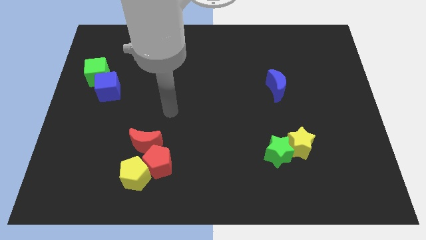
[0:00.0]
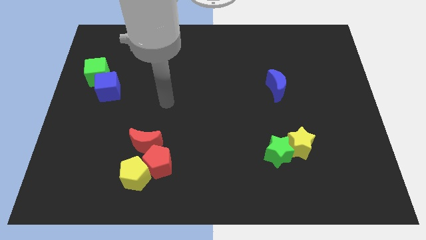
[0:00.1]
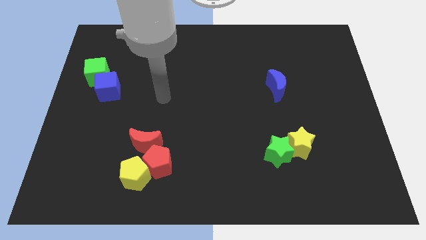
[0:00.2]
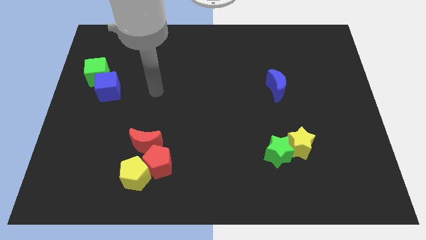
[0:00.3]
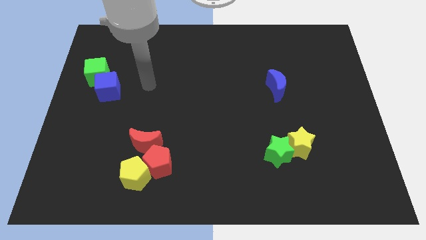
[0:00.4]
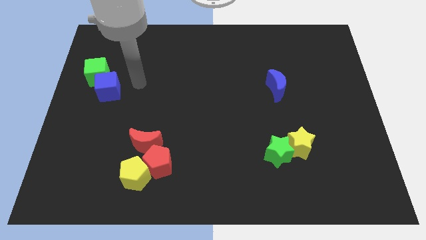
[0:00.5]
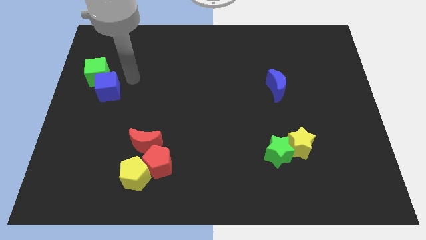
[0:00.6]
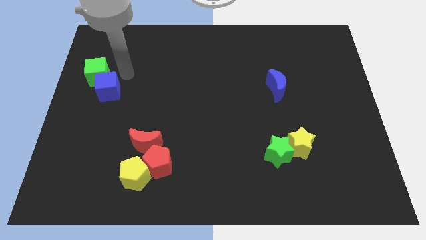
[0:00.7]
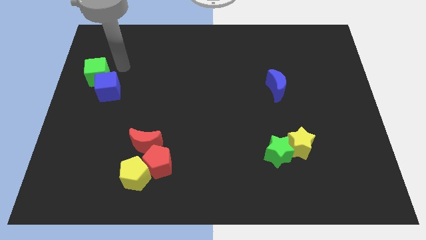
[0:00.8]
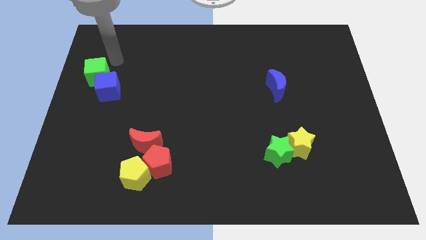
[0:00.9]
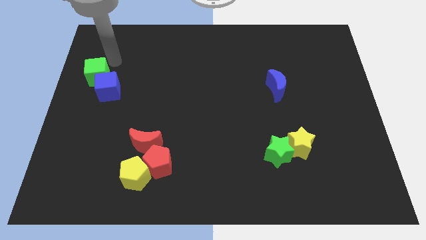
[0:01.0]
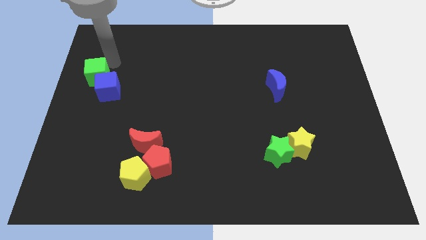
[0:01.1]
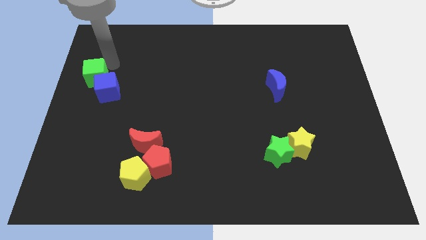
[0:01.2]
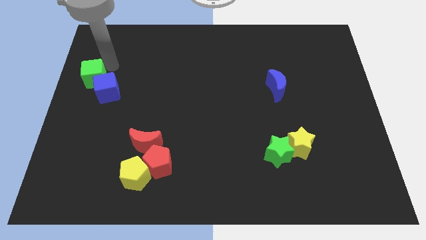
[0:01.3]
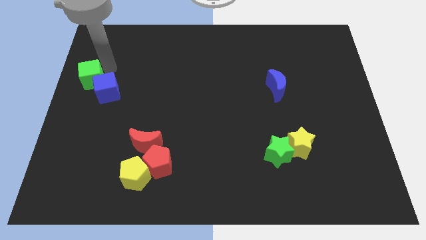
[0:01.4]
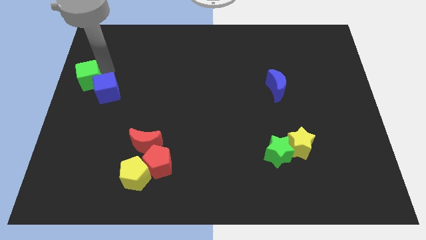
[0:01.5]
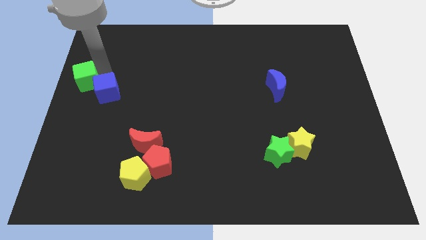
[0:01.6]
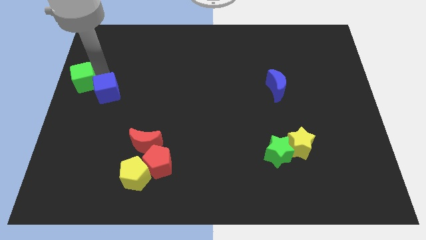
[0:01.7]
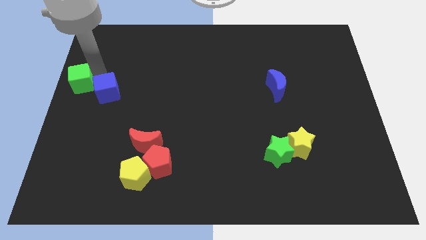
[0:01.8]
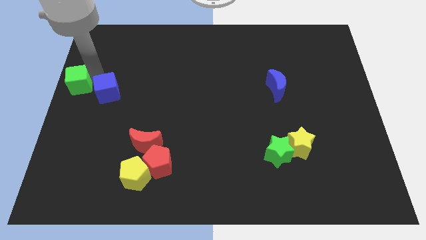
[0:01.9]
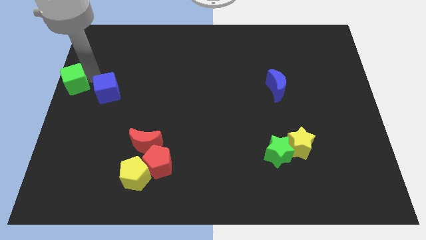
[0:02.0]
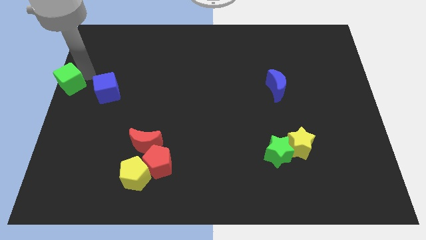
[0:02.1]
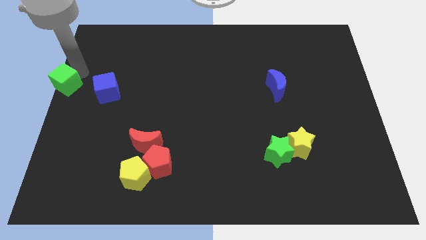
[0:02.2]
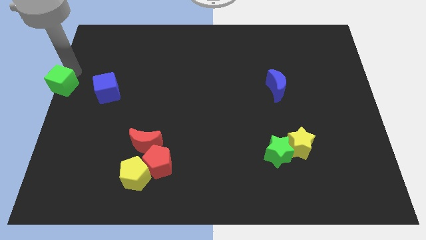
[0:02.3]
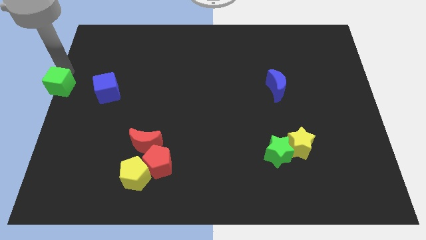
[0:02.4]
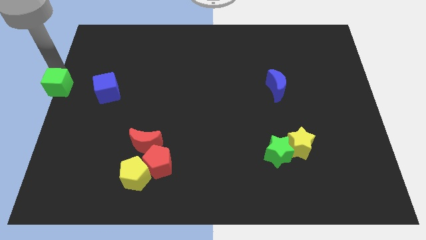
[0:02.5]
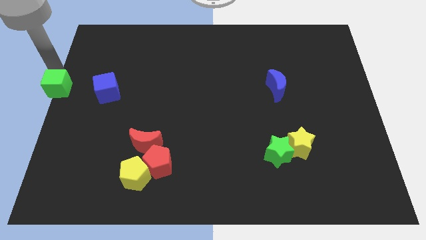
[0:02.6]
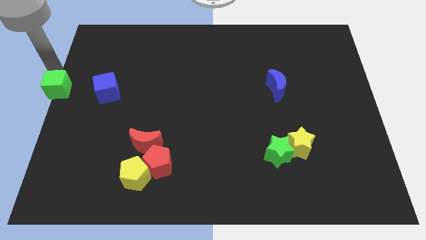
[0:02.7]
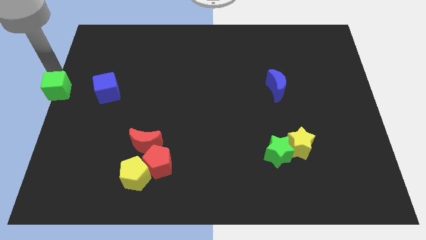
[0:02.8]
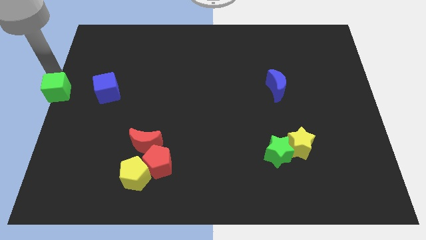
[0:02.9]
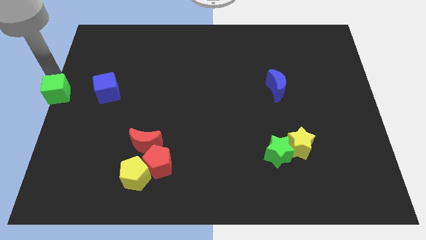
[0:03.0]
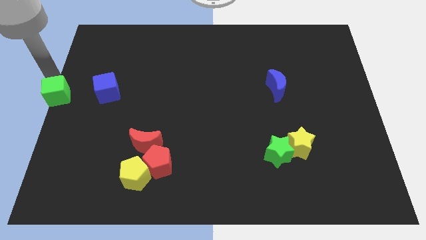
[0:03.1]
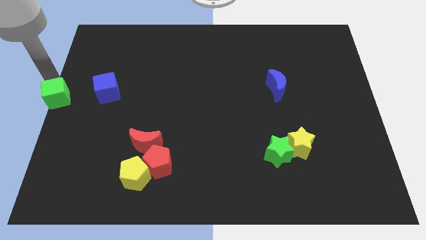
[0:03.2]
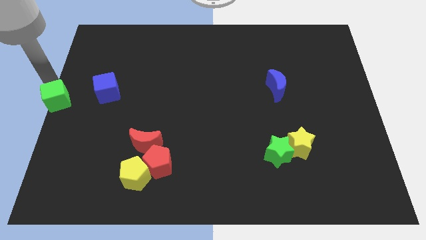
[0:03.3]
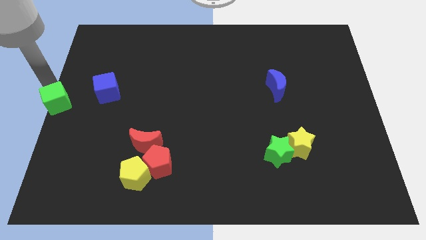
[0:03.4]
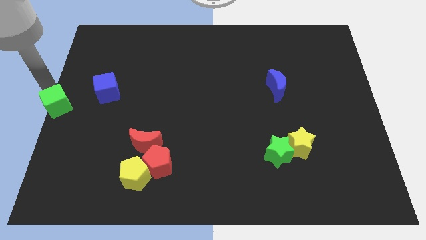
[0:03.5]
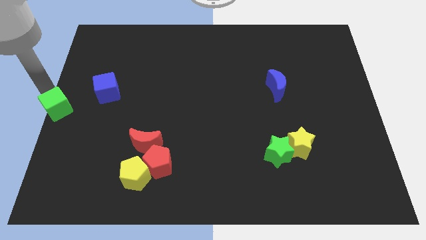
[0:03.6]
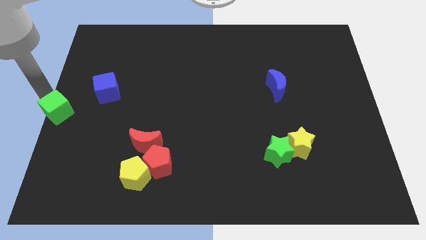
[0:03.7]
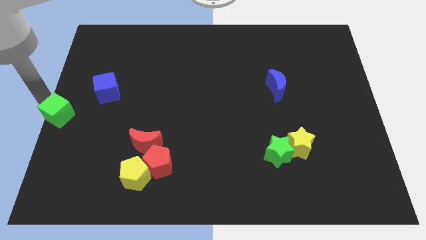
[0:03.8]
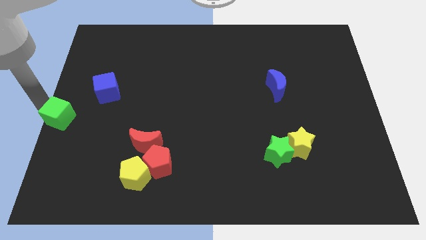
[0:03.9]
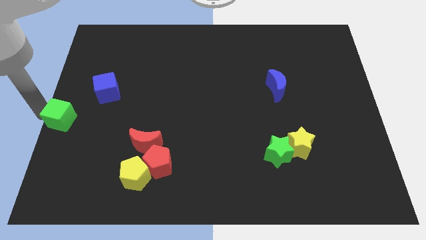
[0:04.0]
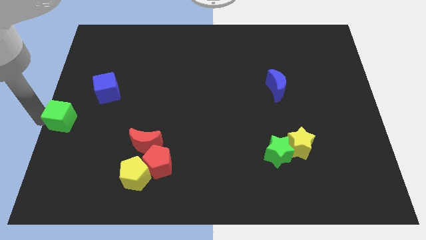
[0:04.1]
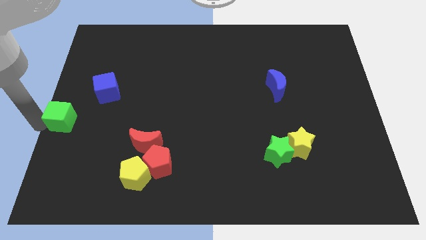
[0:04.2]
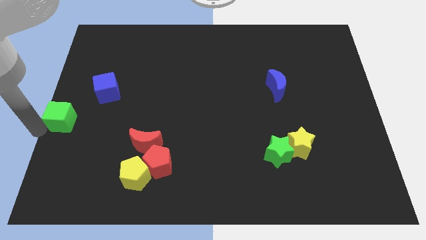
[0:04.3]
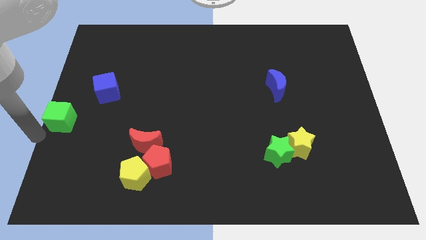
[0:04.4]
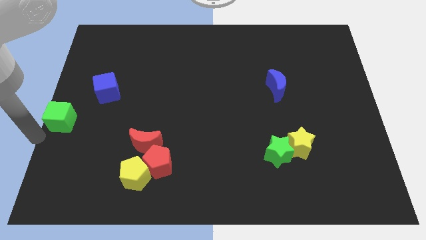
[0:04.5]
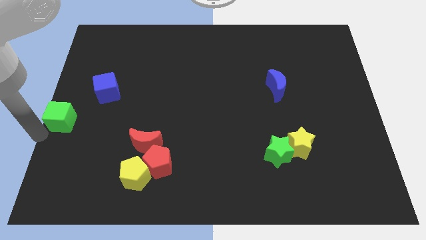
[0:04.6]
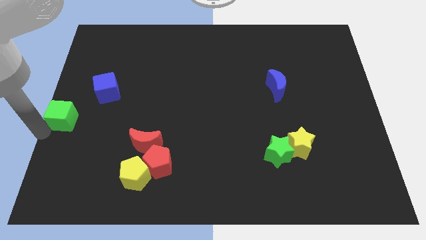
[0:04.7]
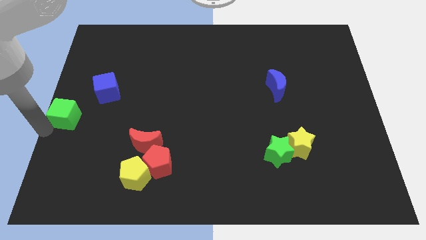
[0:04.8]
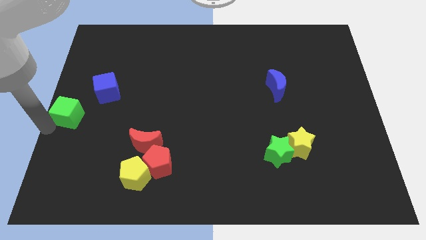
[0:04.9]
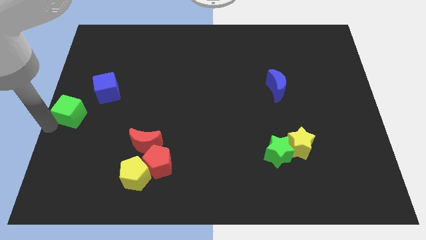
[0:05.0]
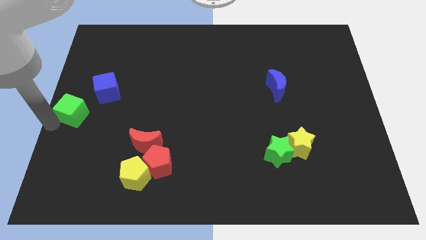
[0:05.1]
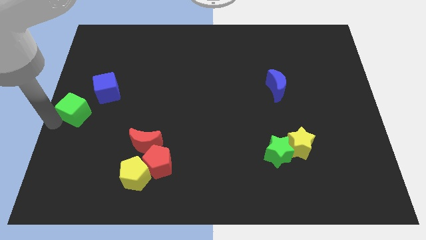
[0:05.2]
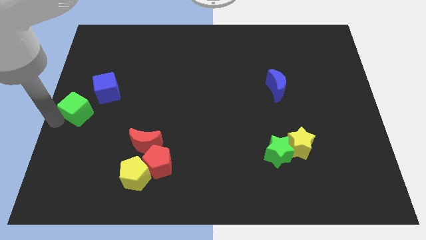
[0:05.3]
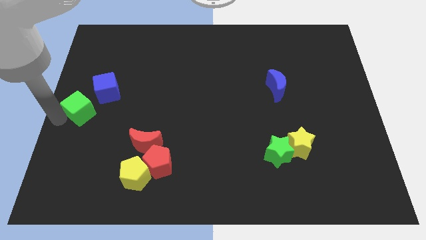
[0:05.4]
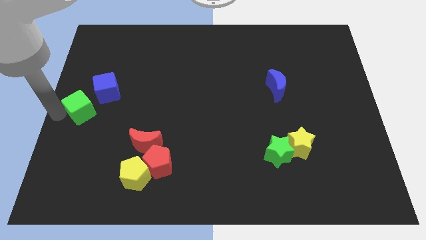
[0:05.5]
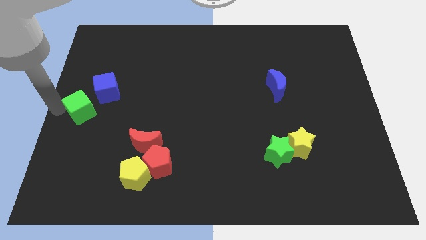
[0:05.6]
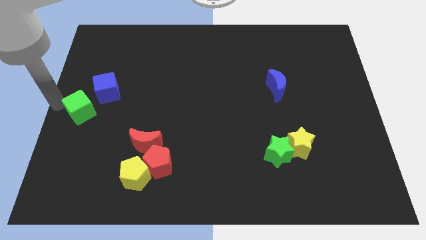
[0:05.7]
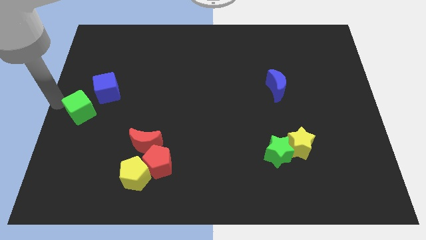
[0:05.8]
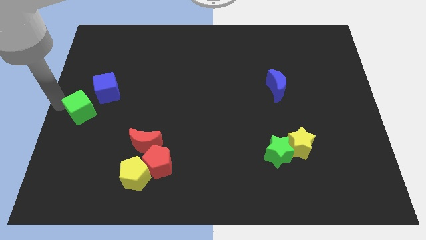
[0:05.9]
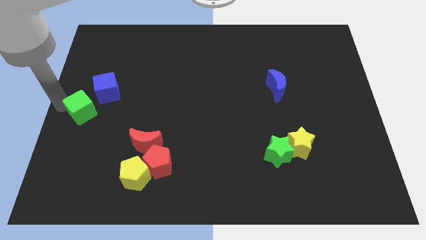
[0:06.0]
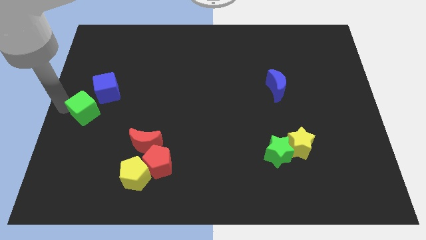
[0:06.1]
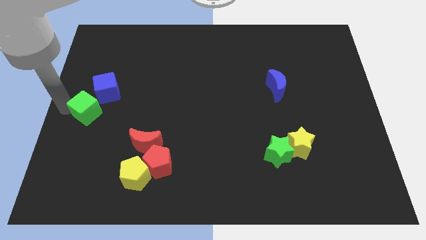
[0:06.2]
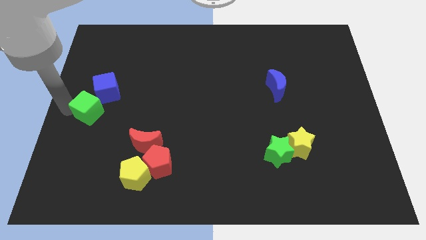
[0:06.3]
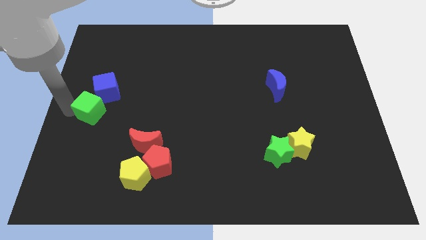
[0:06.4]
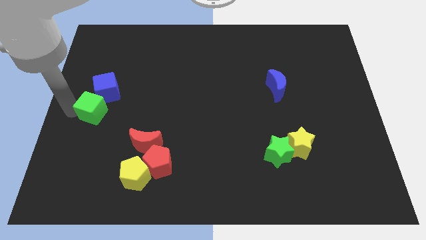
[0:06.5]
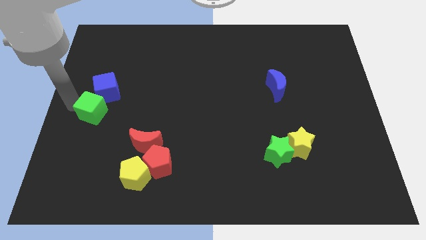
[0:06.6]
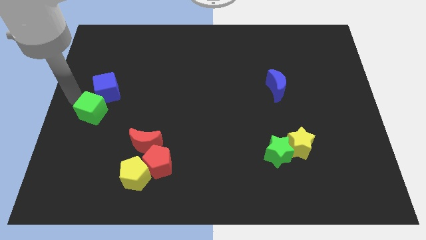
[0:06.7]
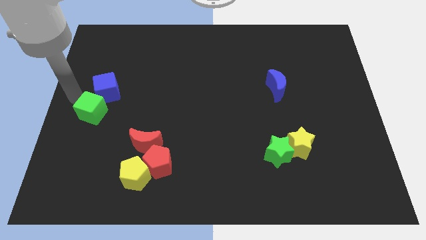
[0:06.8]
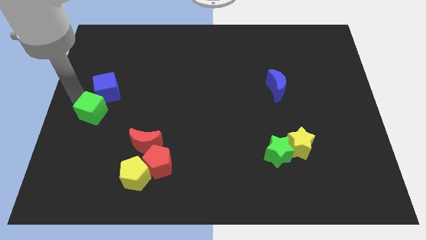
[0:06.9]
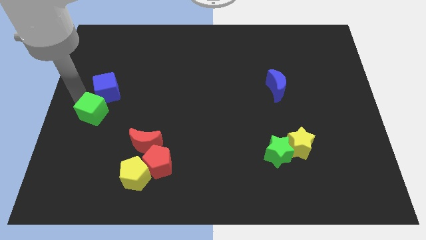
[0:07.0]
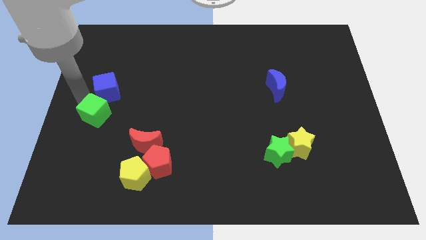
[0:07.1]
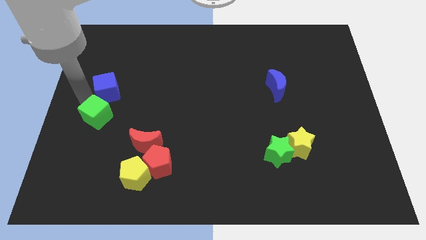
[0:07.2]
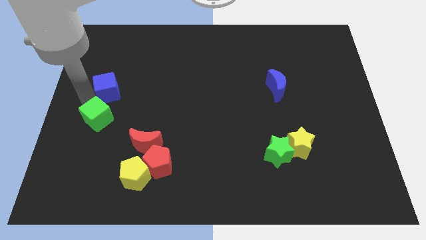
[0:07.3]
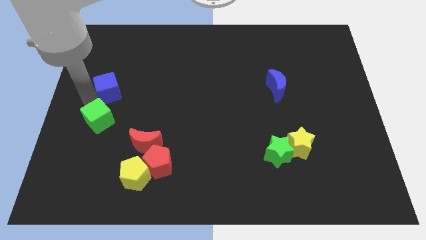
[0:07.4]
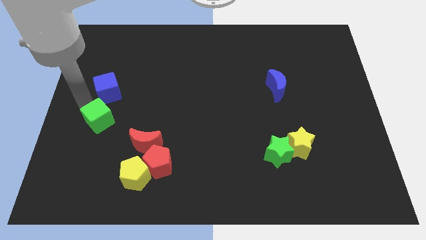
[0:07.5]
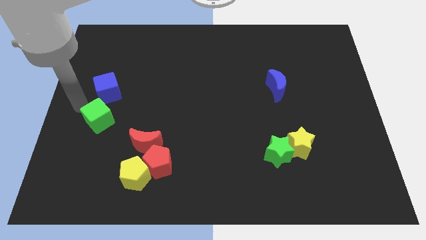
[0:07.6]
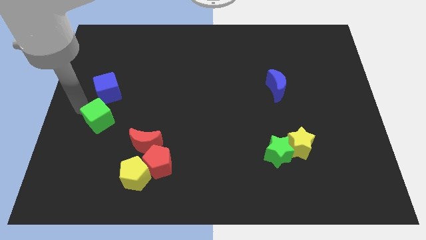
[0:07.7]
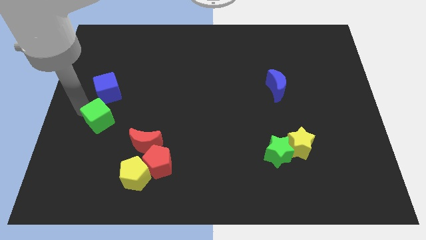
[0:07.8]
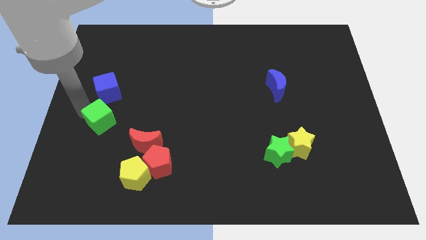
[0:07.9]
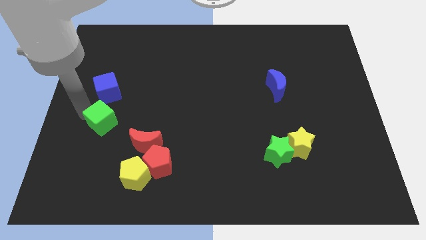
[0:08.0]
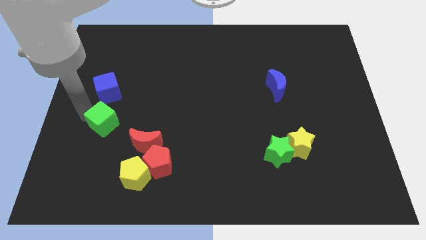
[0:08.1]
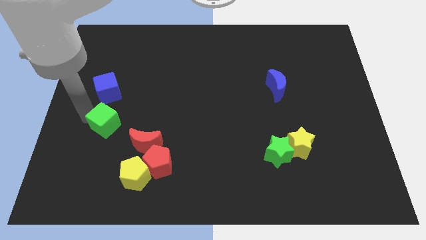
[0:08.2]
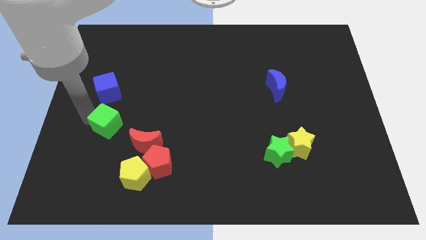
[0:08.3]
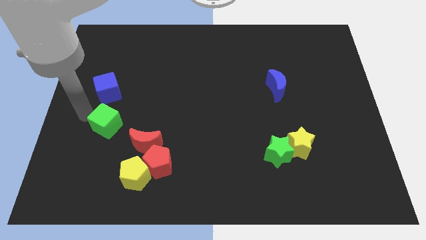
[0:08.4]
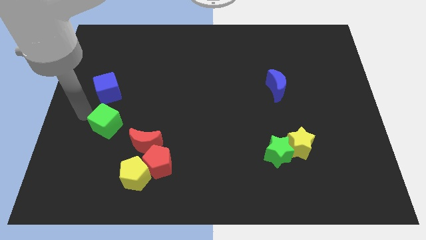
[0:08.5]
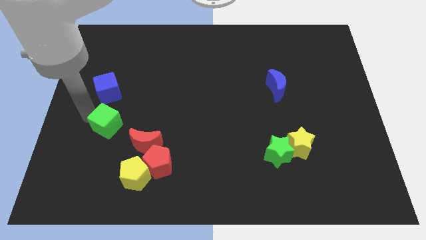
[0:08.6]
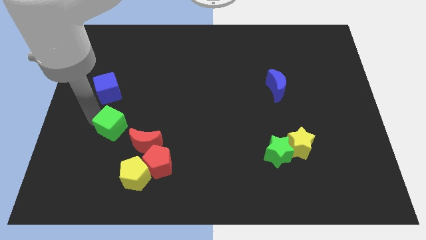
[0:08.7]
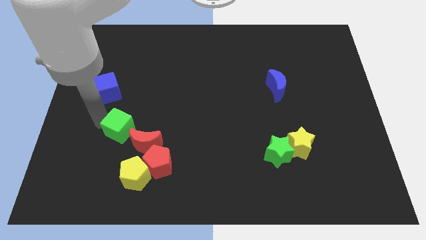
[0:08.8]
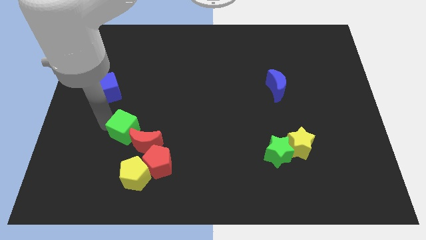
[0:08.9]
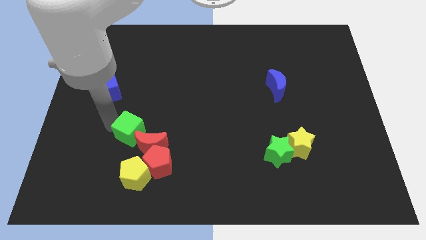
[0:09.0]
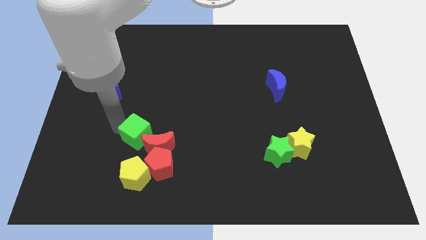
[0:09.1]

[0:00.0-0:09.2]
put the green cube to the red moon
